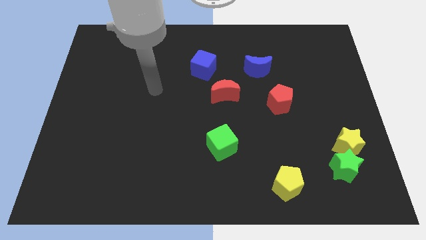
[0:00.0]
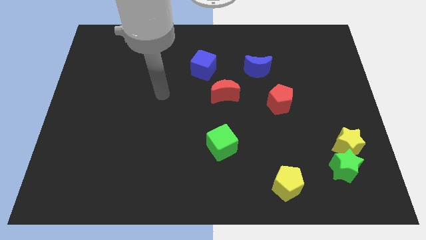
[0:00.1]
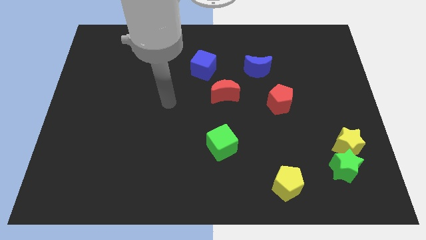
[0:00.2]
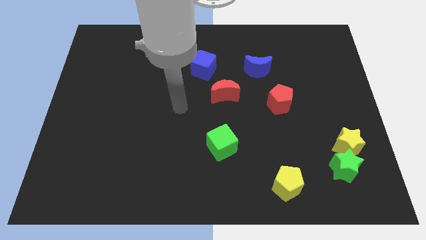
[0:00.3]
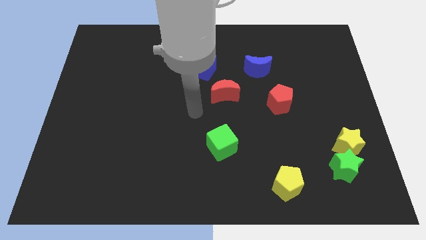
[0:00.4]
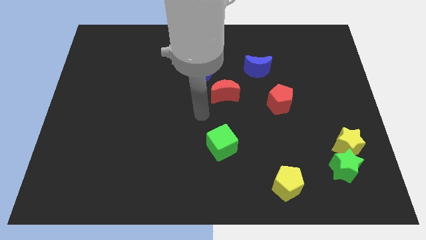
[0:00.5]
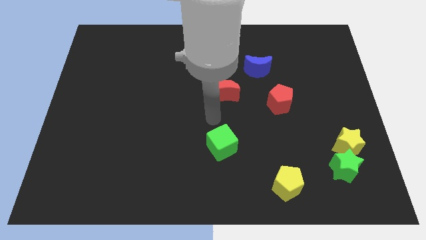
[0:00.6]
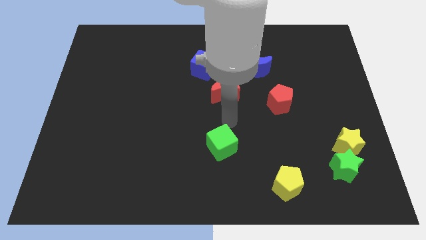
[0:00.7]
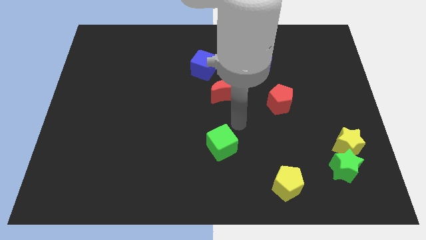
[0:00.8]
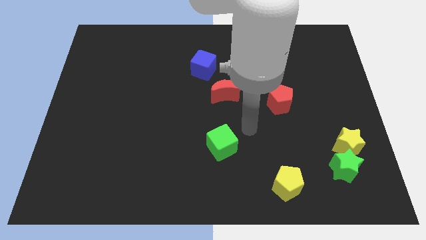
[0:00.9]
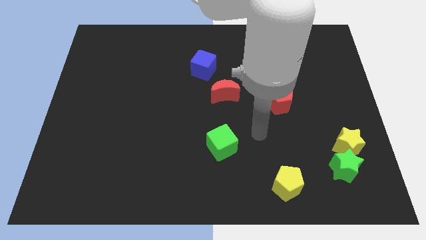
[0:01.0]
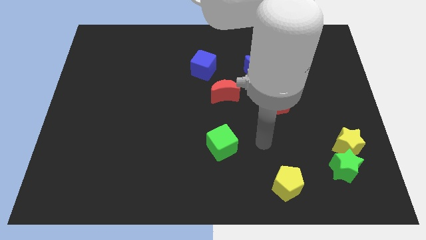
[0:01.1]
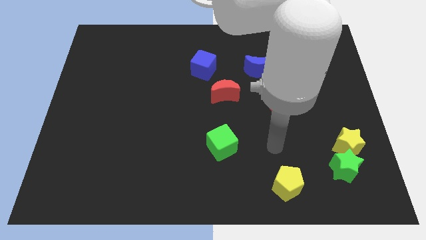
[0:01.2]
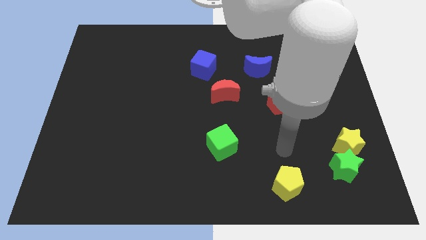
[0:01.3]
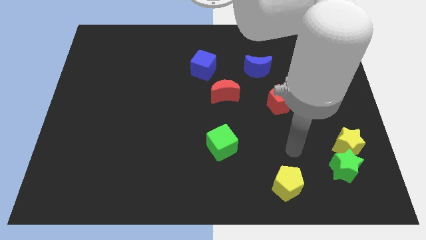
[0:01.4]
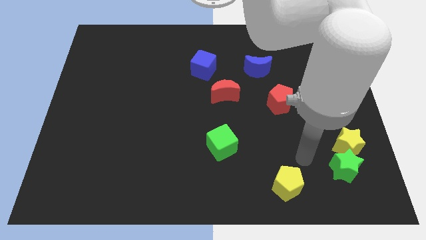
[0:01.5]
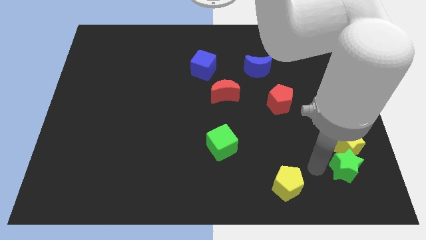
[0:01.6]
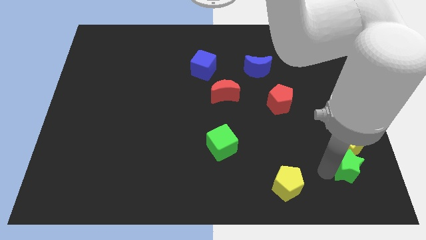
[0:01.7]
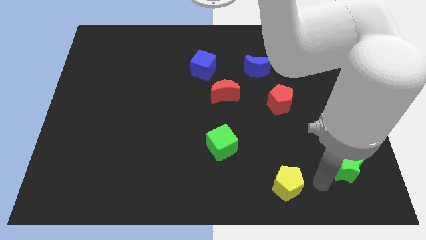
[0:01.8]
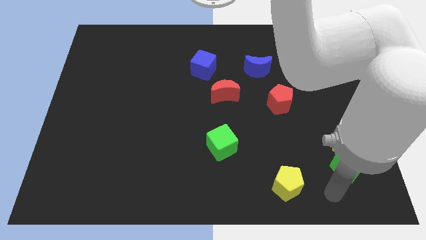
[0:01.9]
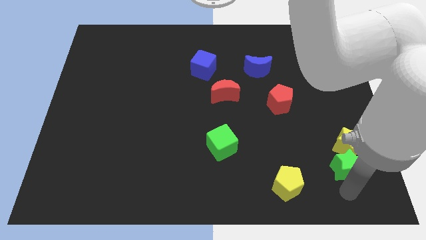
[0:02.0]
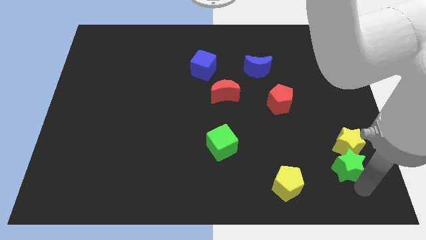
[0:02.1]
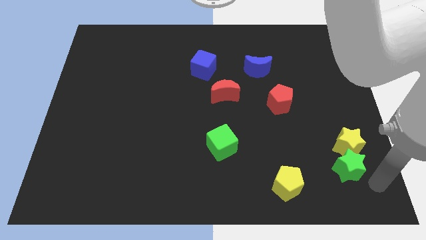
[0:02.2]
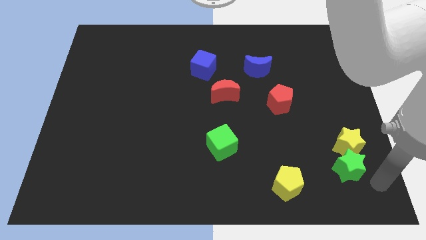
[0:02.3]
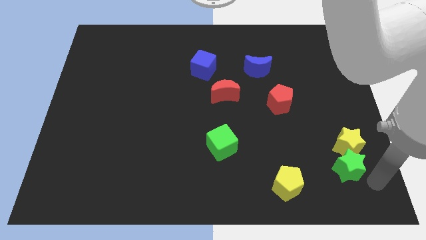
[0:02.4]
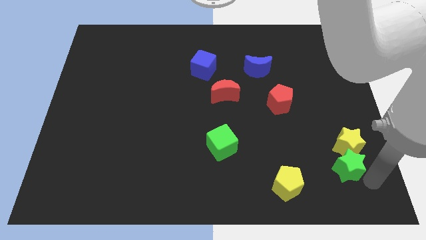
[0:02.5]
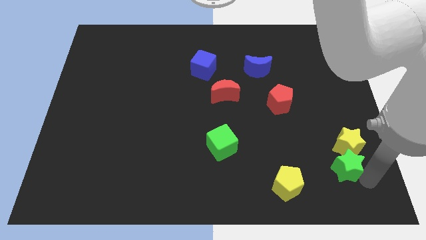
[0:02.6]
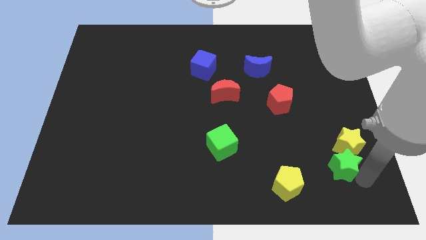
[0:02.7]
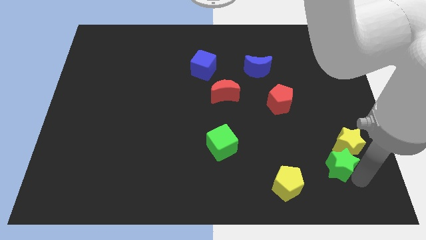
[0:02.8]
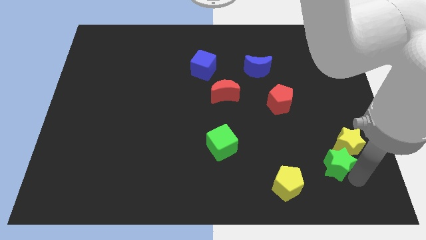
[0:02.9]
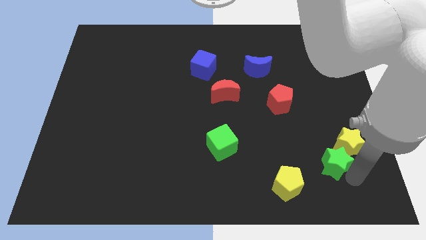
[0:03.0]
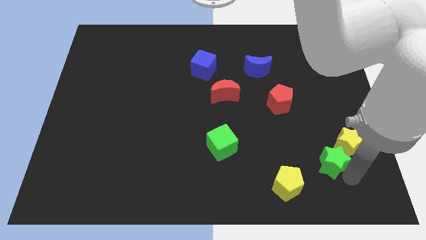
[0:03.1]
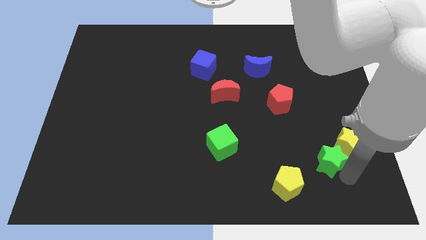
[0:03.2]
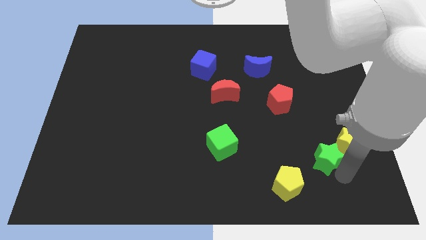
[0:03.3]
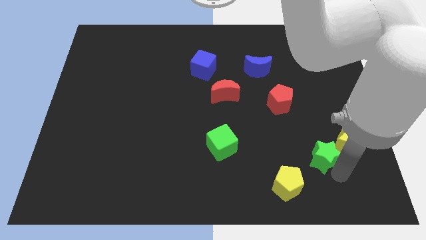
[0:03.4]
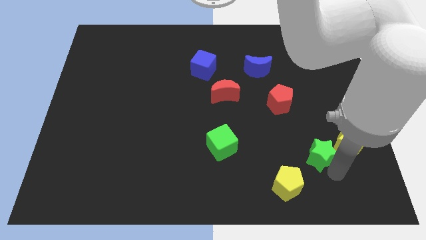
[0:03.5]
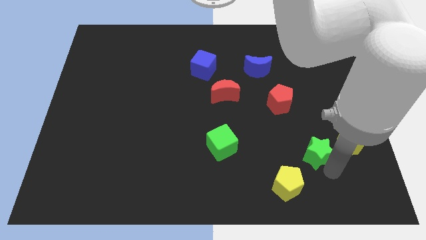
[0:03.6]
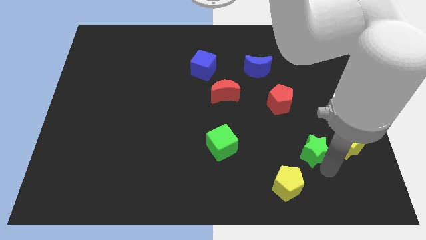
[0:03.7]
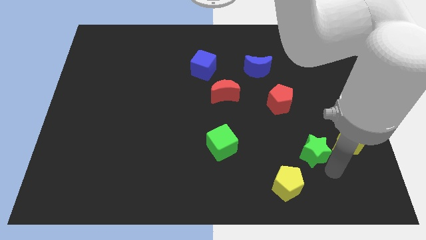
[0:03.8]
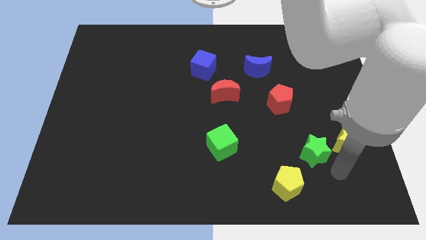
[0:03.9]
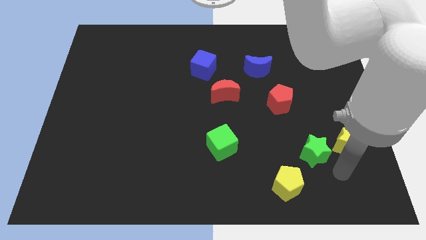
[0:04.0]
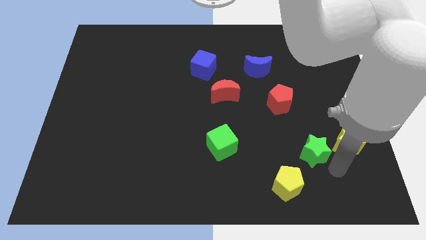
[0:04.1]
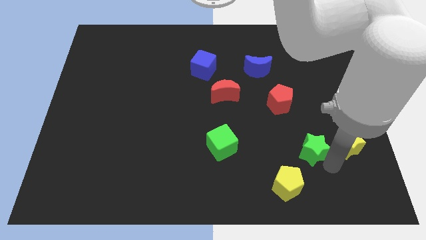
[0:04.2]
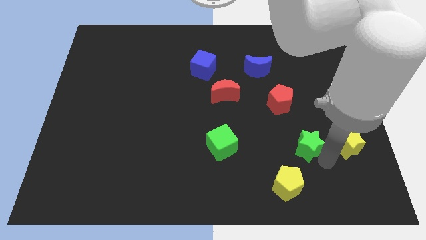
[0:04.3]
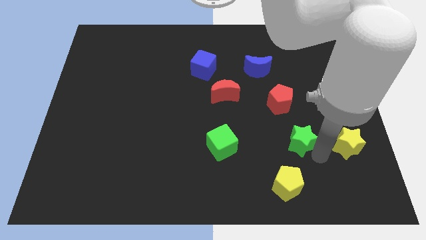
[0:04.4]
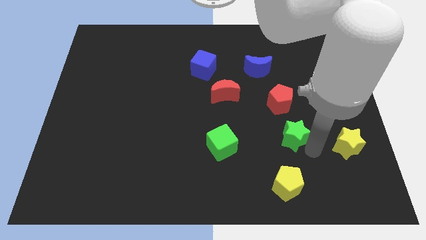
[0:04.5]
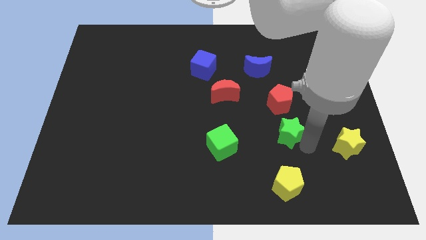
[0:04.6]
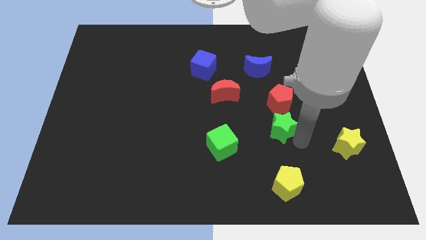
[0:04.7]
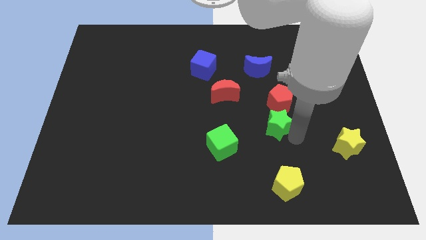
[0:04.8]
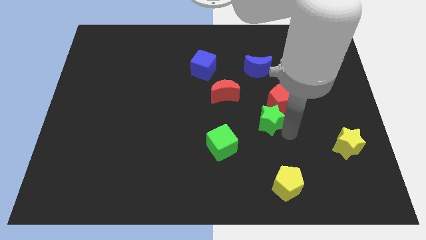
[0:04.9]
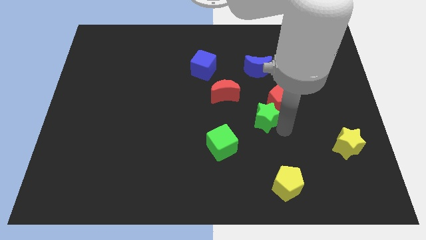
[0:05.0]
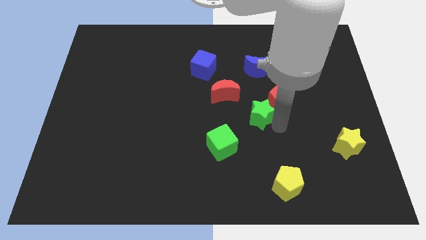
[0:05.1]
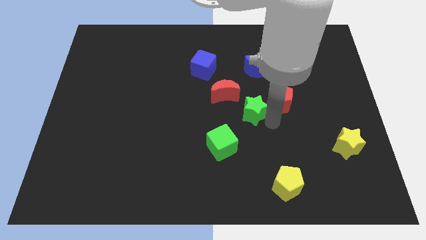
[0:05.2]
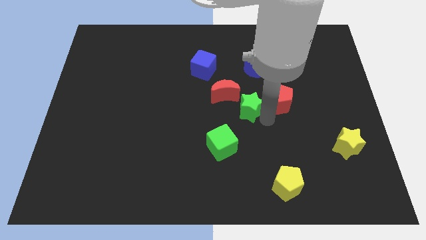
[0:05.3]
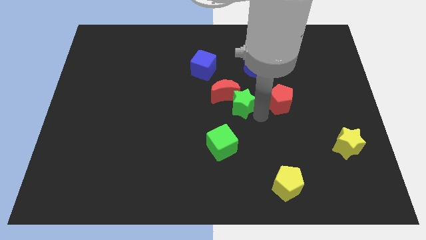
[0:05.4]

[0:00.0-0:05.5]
push the green star next to the red moon

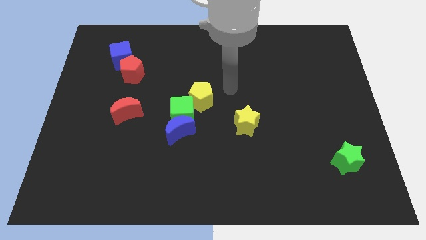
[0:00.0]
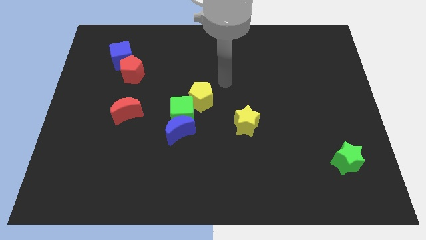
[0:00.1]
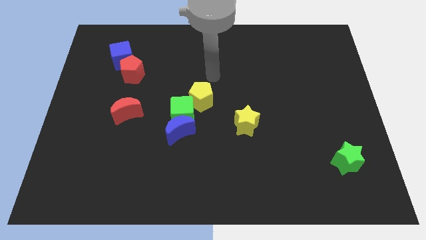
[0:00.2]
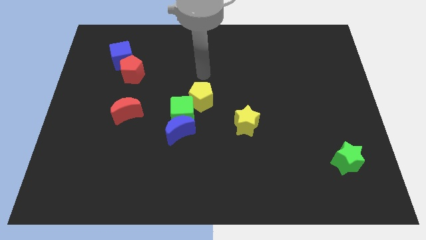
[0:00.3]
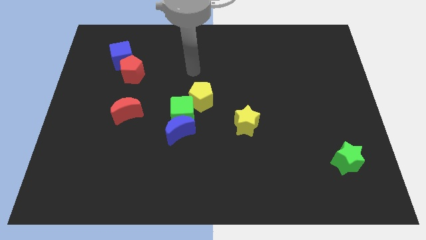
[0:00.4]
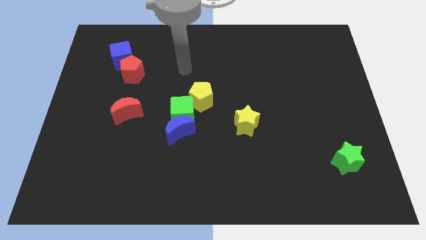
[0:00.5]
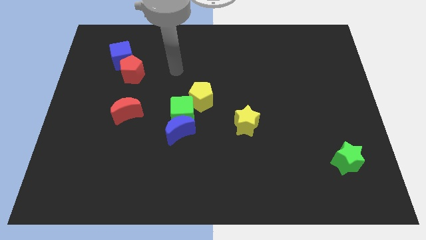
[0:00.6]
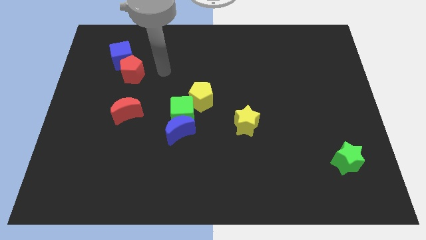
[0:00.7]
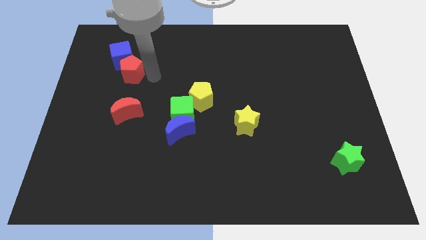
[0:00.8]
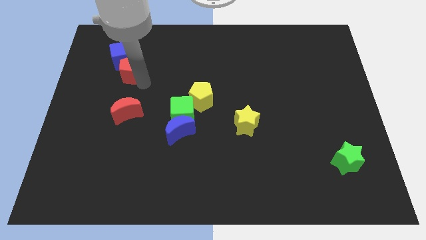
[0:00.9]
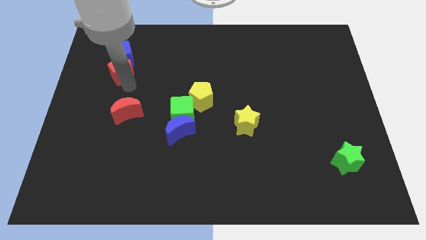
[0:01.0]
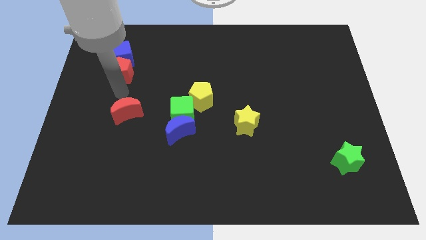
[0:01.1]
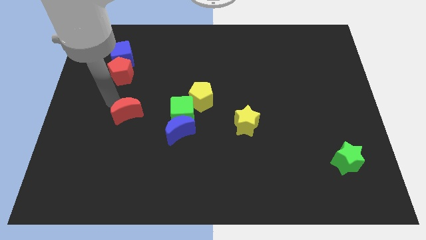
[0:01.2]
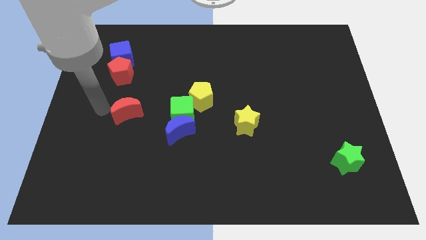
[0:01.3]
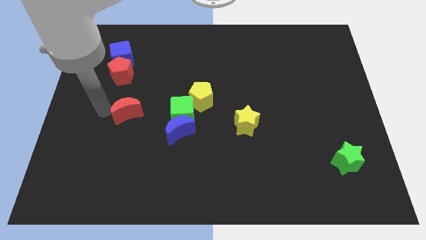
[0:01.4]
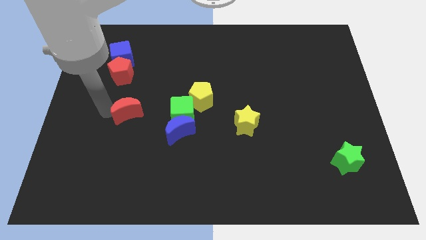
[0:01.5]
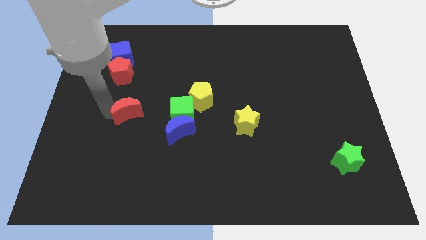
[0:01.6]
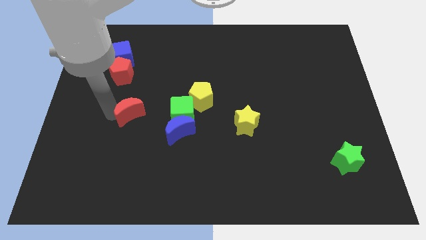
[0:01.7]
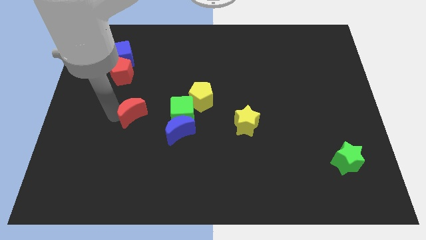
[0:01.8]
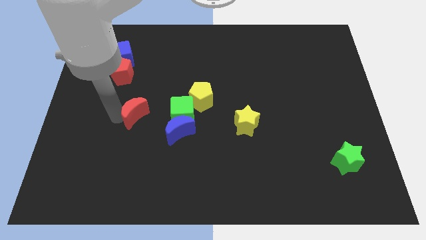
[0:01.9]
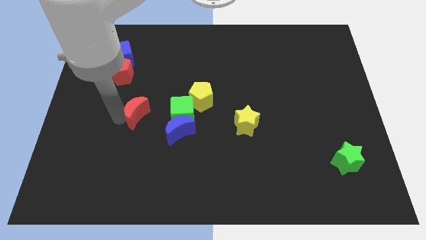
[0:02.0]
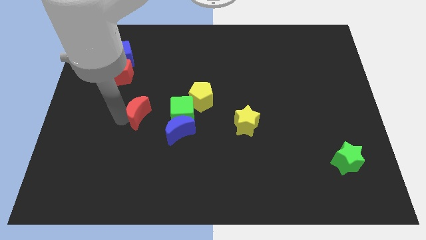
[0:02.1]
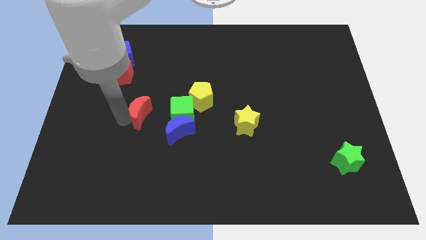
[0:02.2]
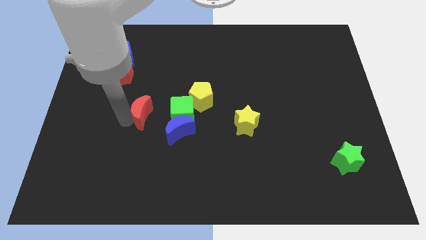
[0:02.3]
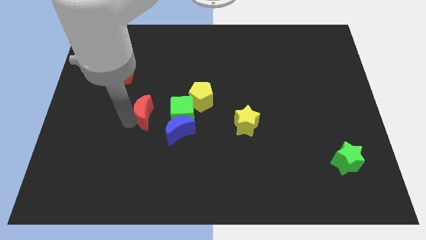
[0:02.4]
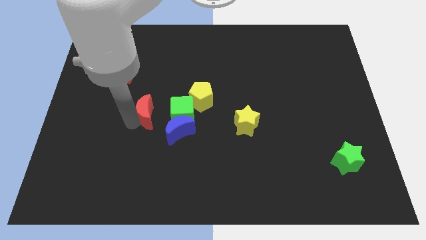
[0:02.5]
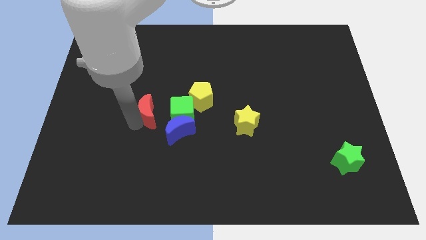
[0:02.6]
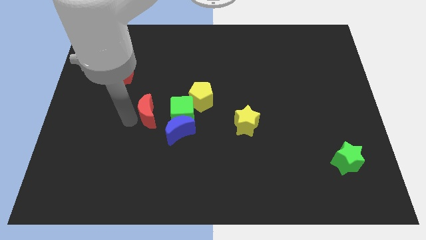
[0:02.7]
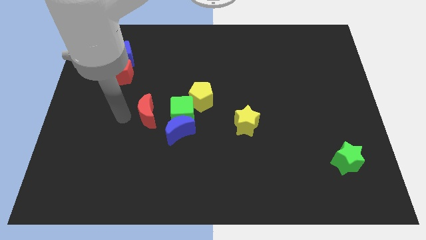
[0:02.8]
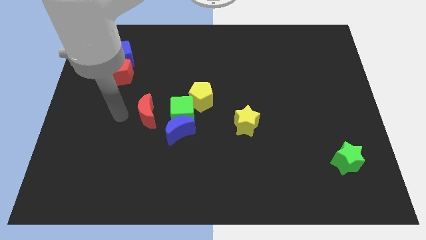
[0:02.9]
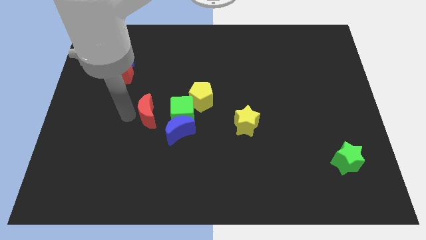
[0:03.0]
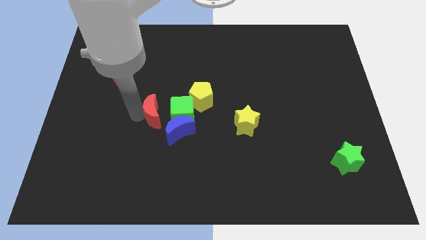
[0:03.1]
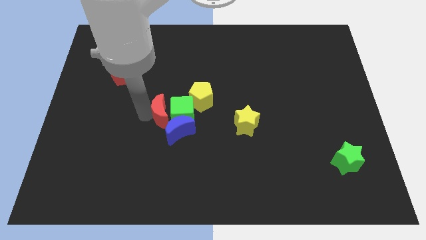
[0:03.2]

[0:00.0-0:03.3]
slide the red moon next to the green cube
